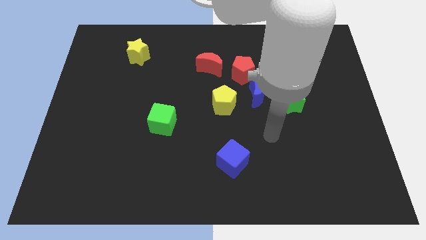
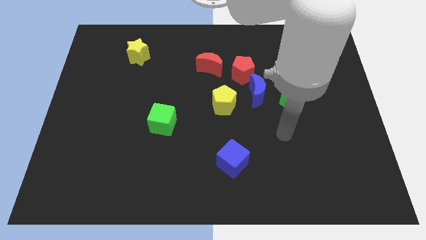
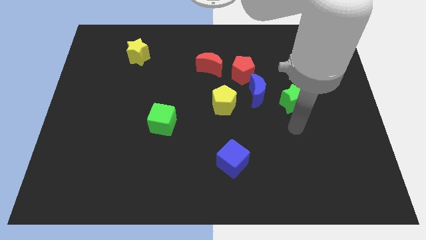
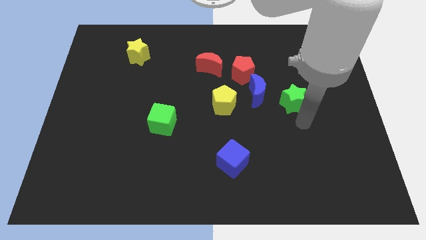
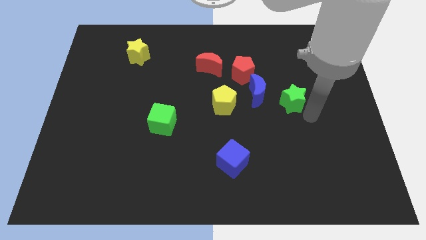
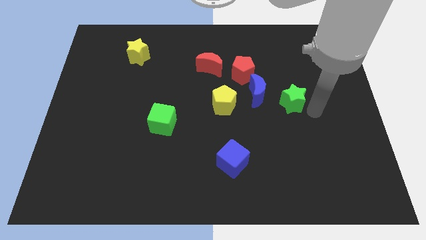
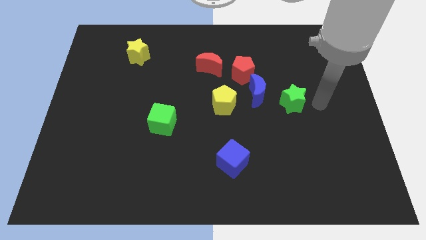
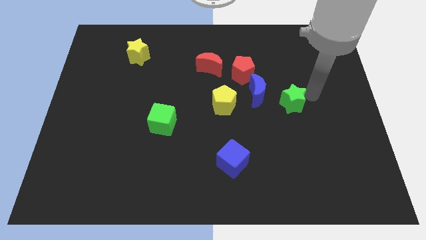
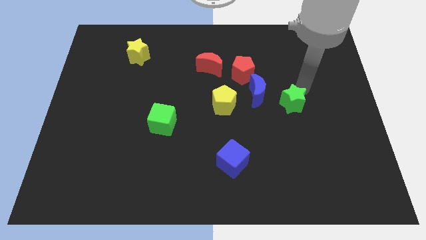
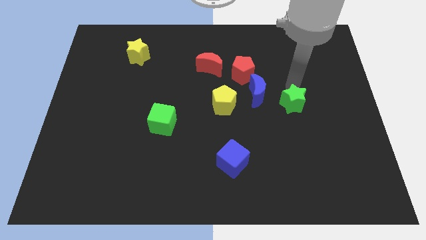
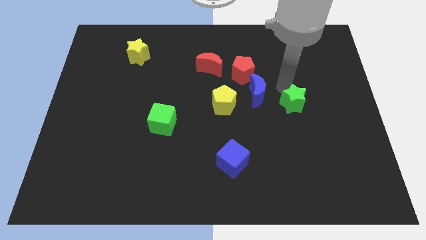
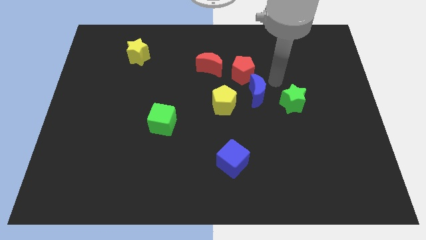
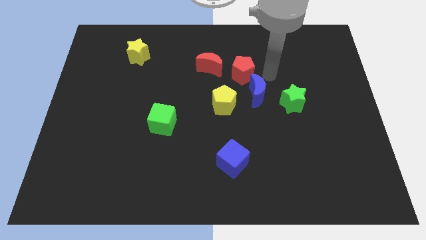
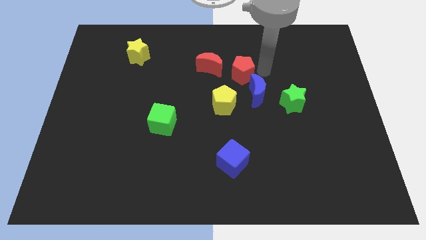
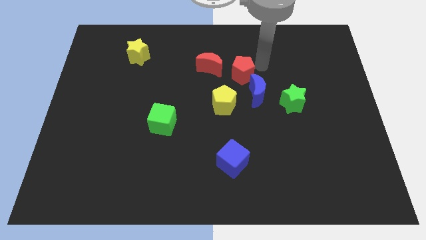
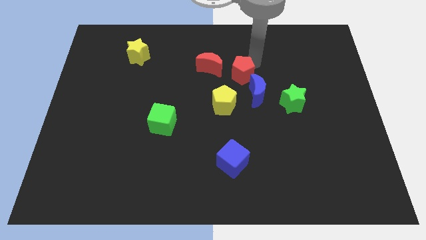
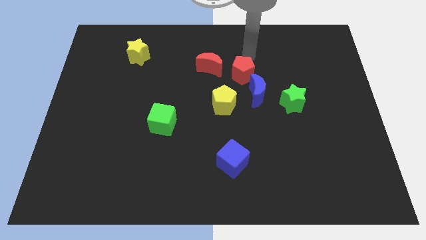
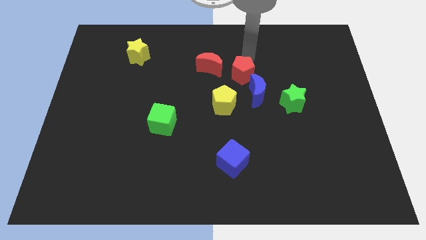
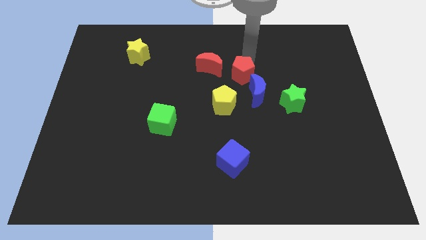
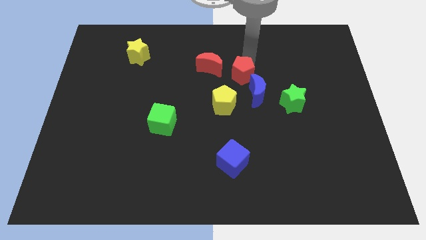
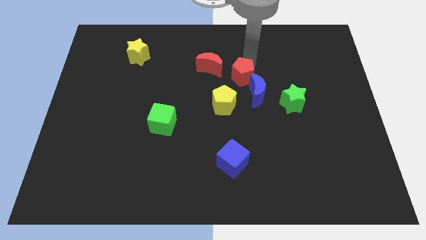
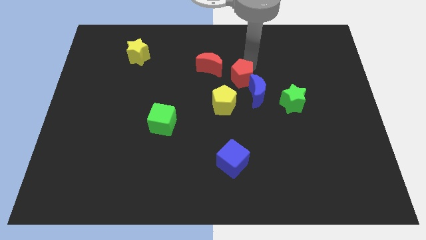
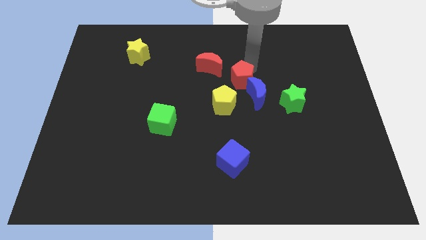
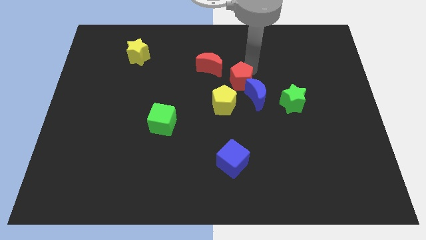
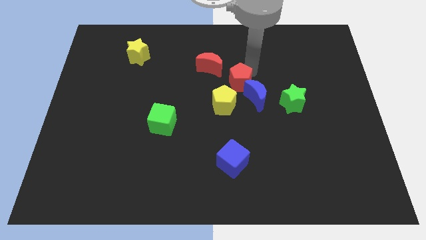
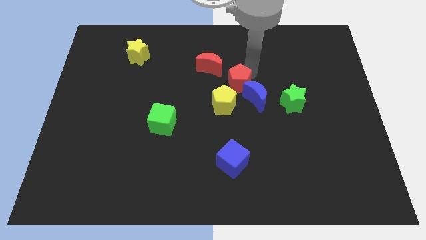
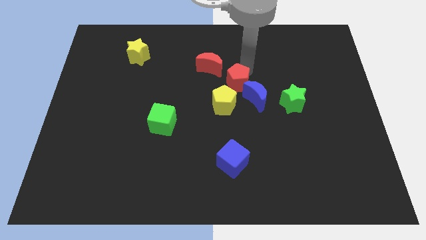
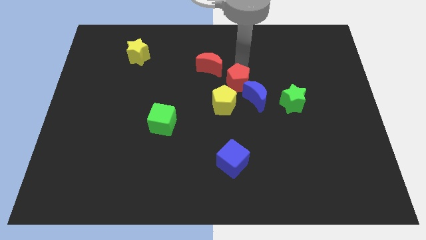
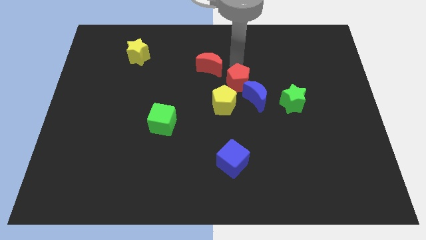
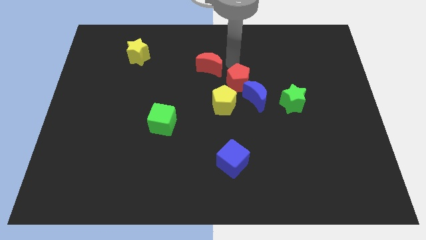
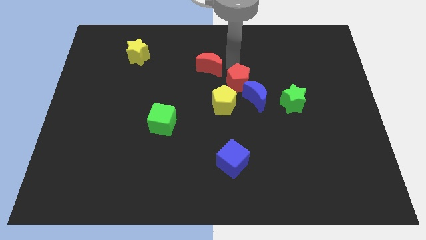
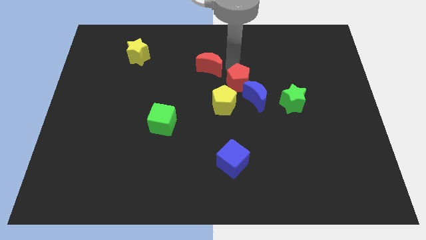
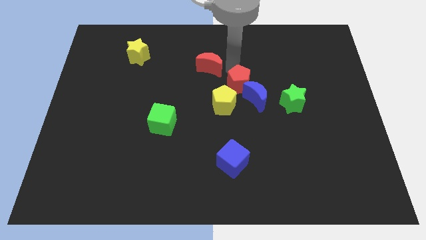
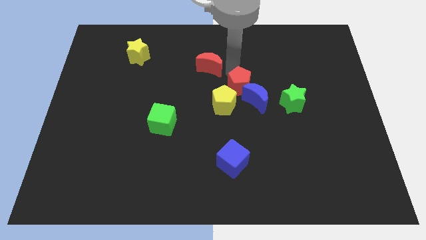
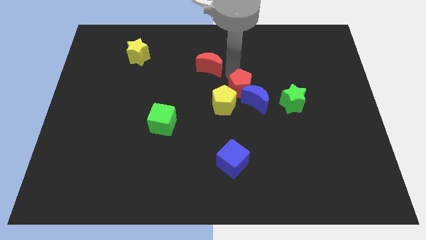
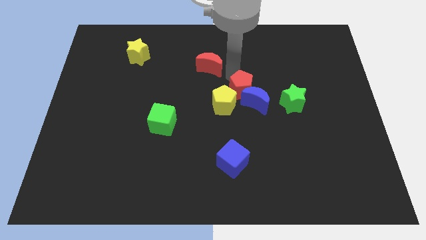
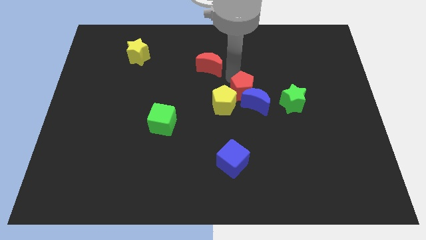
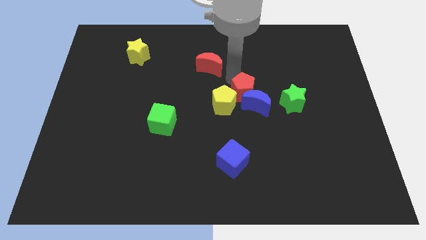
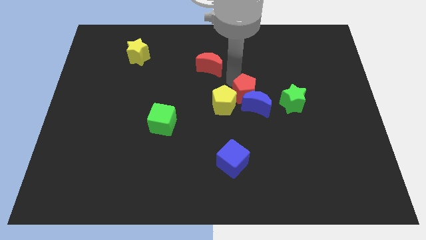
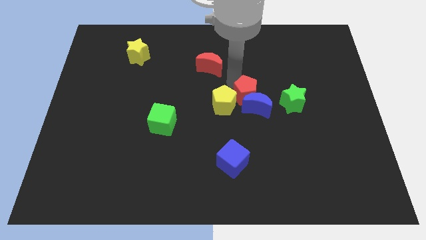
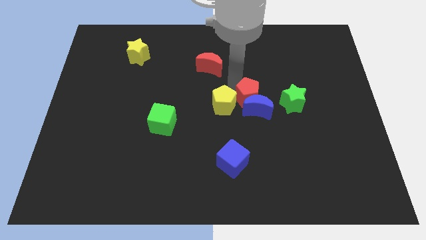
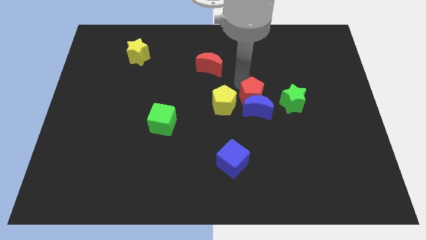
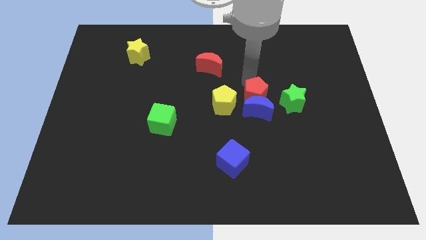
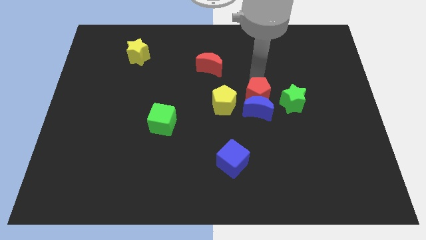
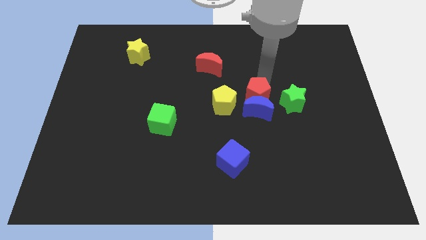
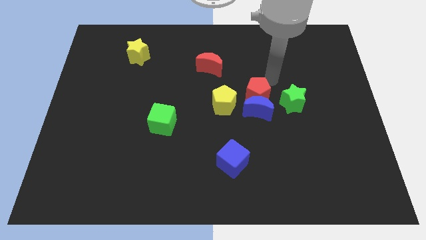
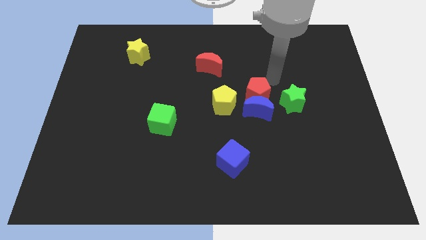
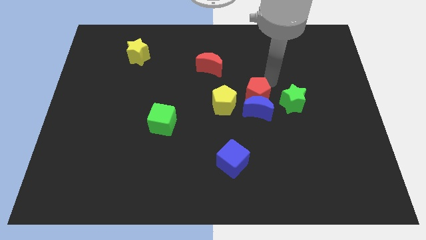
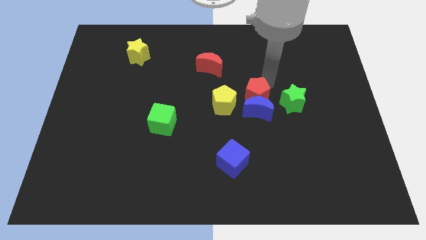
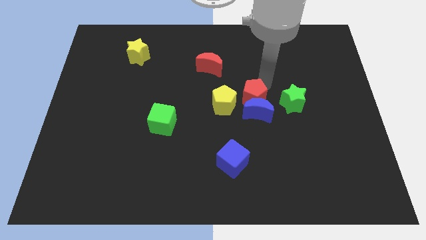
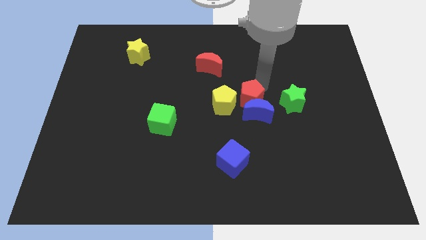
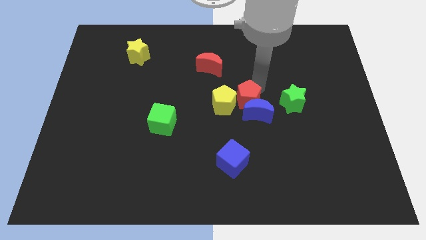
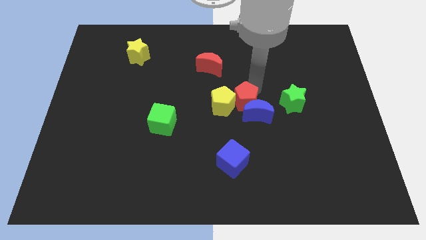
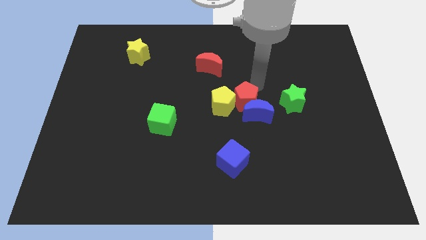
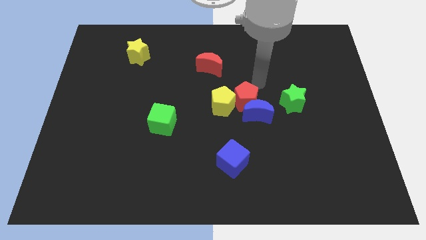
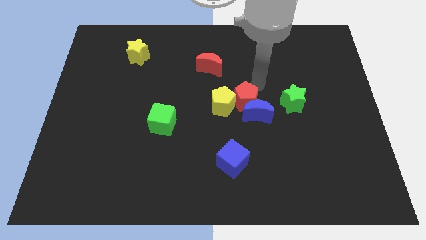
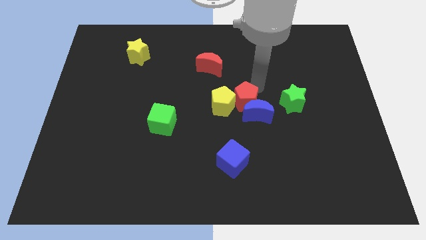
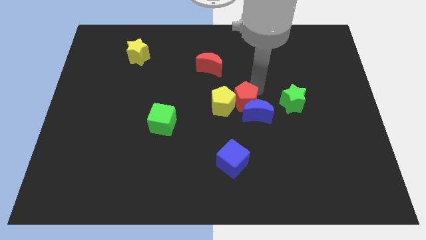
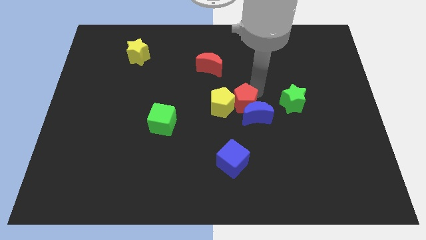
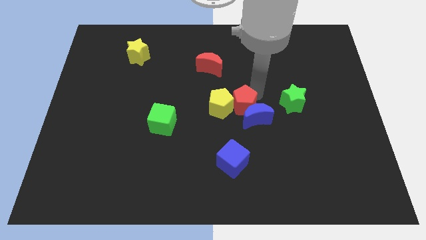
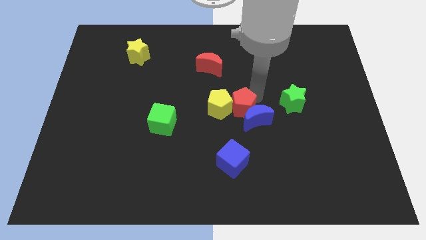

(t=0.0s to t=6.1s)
move the red pentagon to the top side of the blue cube

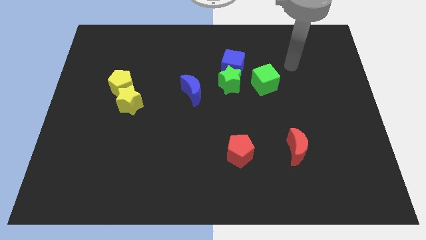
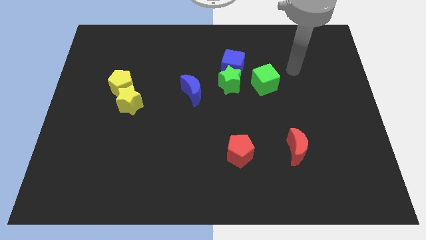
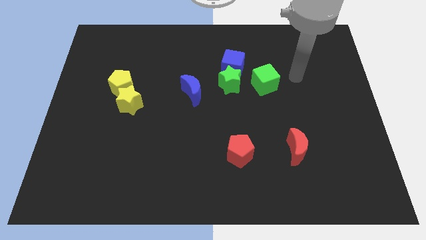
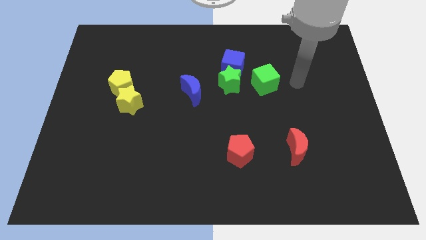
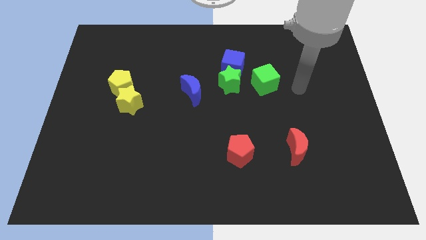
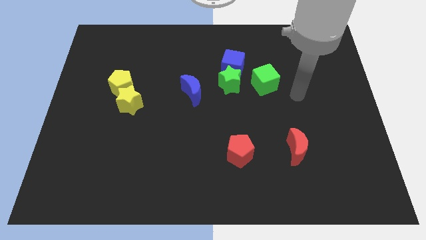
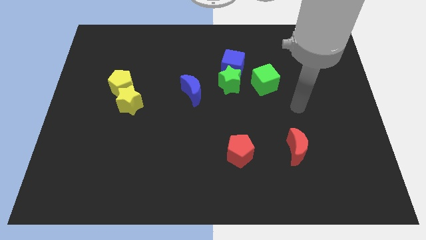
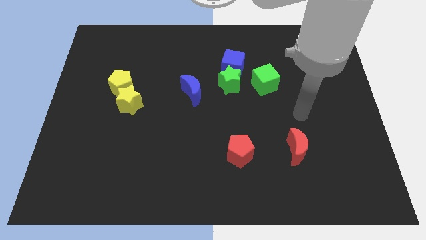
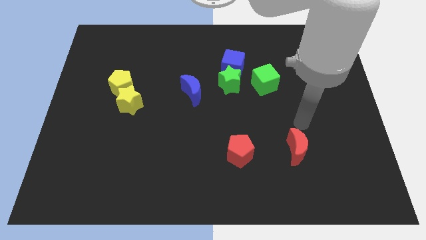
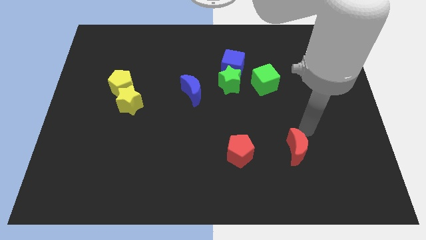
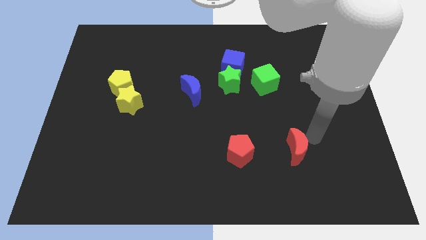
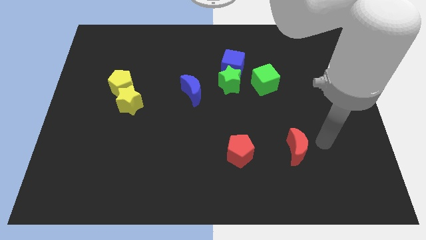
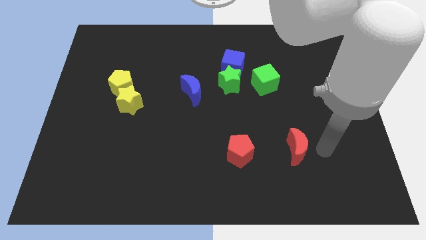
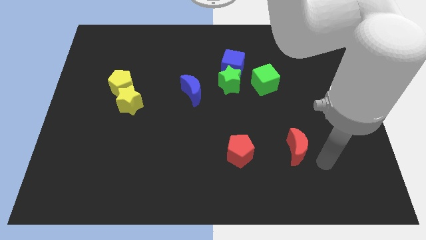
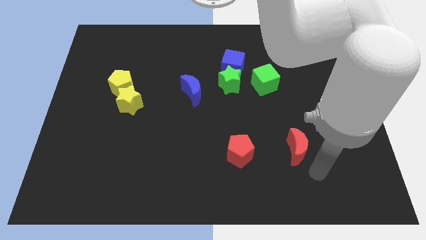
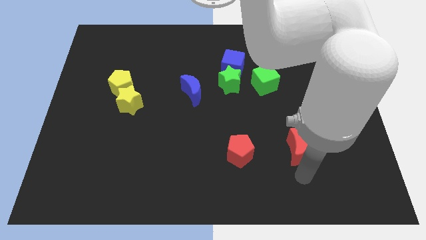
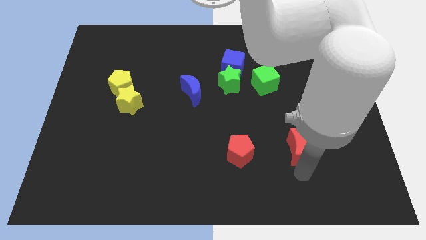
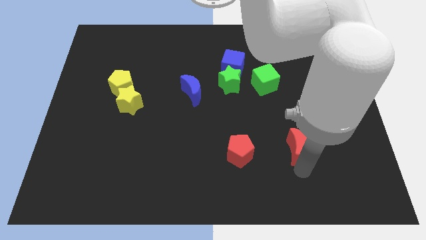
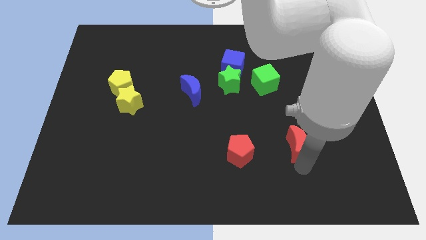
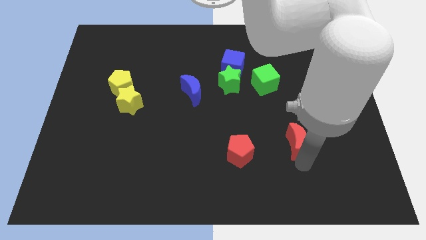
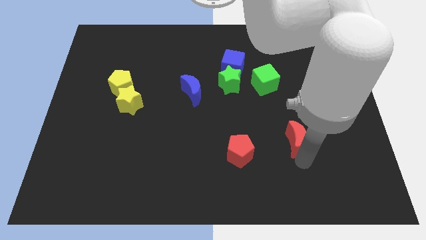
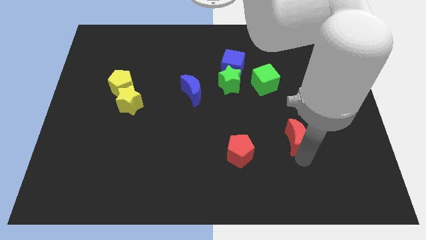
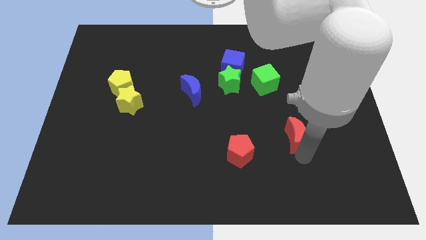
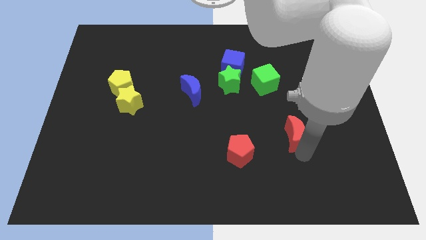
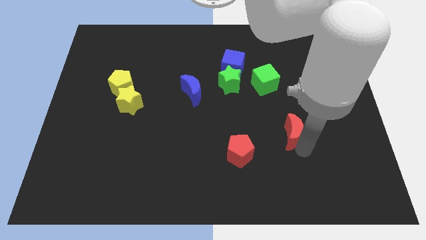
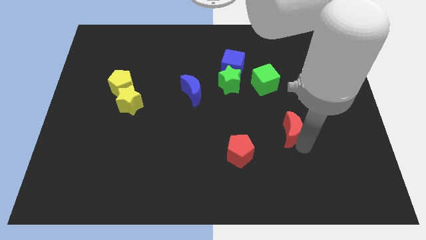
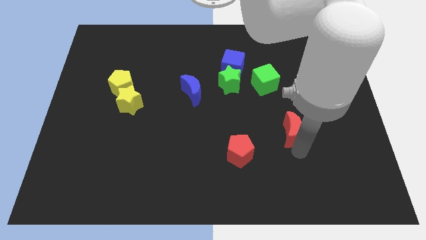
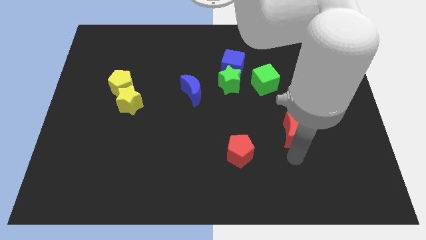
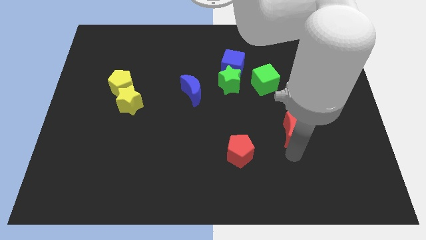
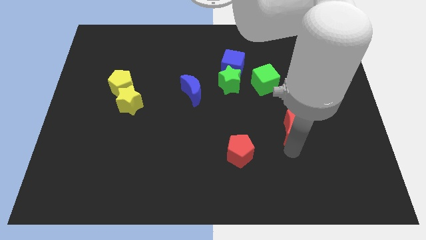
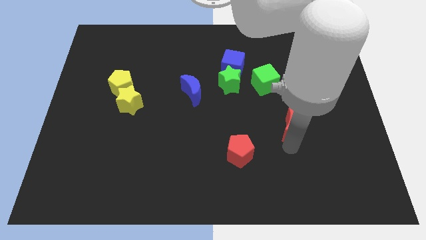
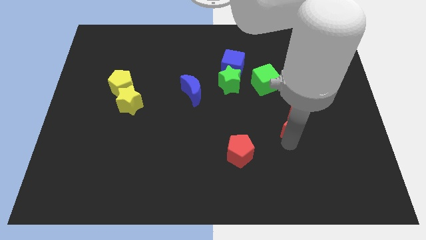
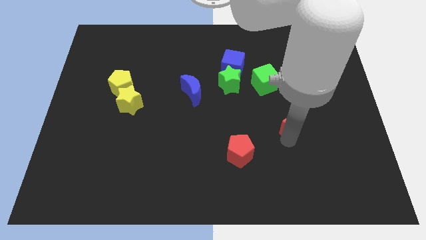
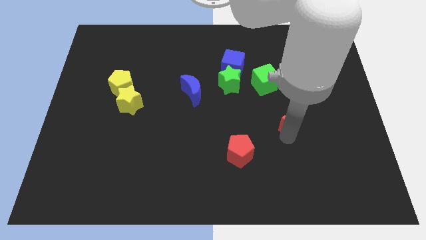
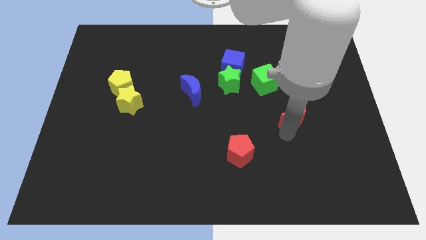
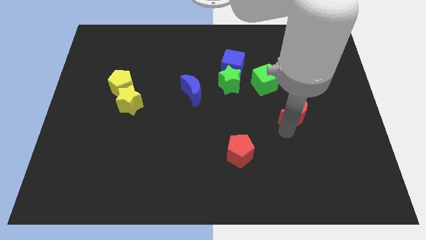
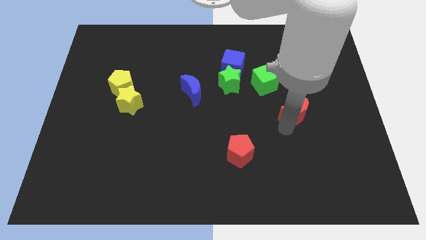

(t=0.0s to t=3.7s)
put the red moon to the bottom right side of the green cube
